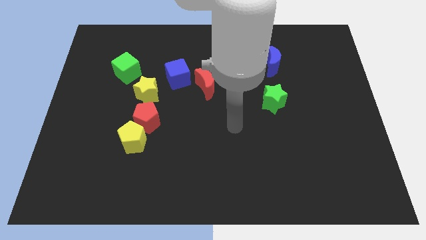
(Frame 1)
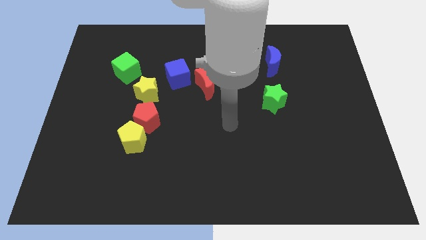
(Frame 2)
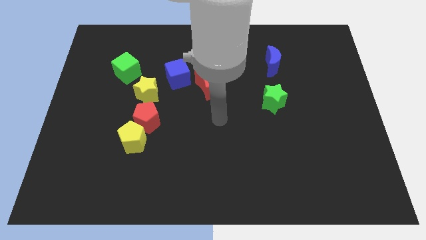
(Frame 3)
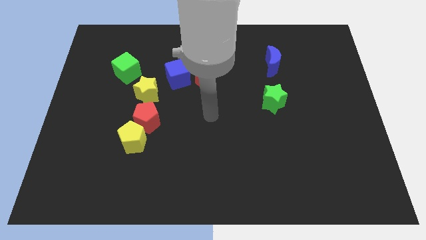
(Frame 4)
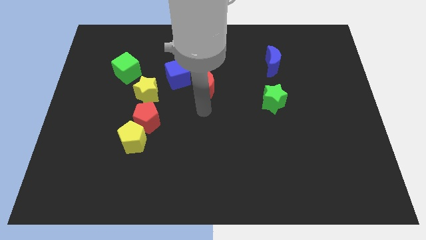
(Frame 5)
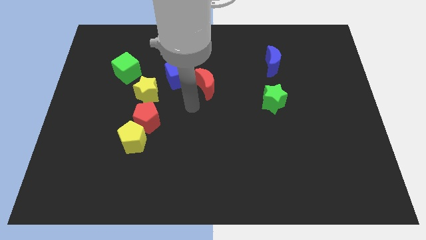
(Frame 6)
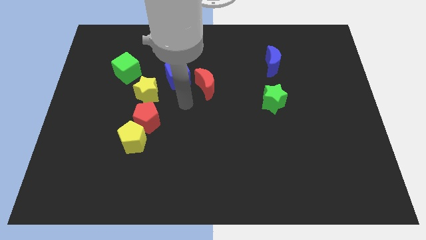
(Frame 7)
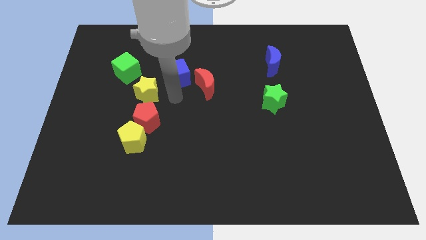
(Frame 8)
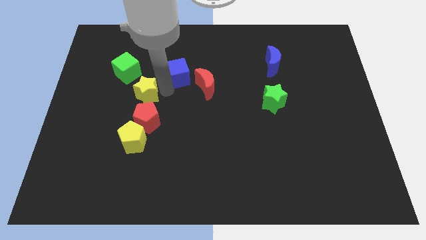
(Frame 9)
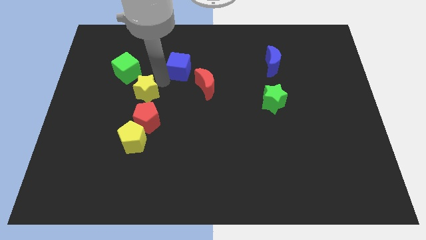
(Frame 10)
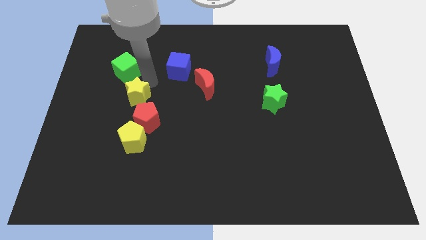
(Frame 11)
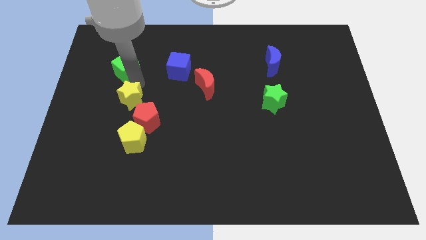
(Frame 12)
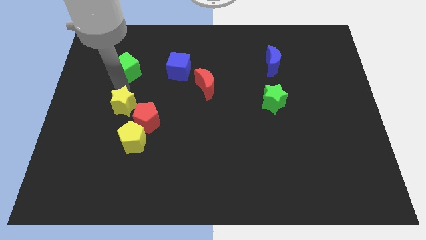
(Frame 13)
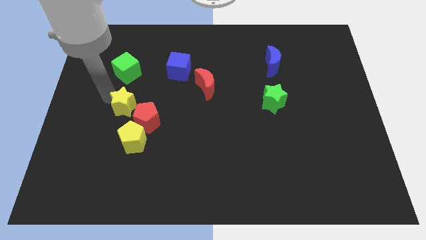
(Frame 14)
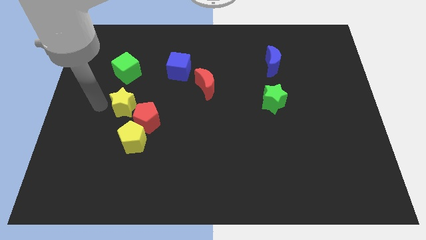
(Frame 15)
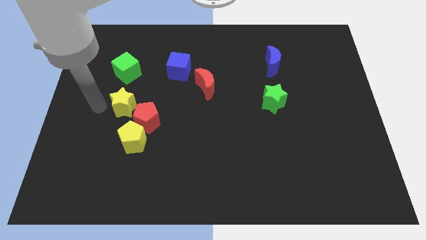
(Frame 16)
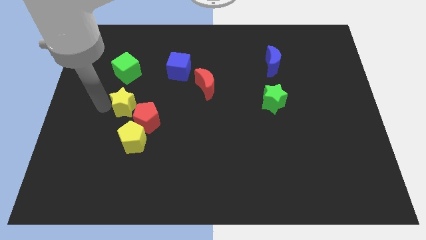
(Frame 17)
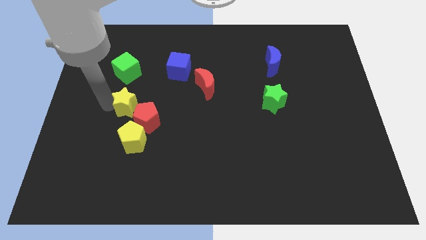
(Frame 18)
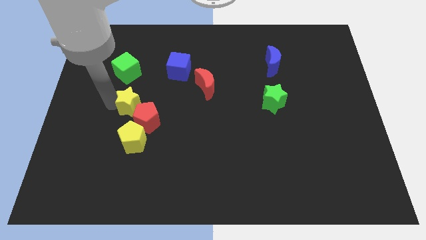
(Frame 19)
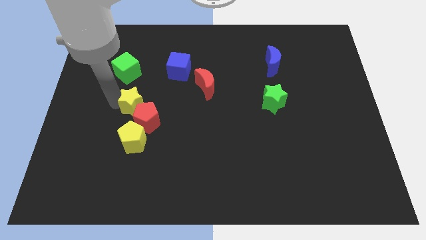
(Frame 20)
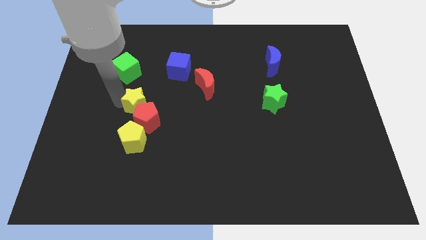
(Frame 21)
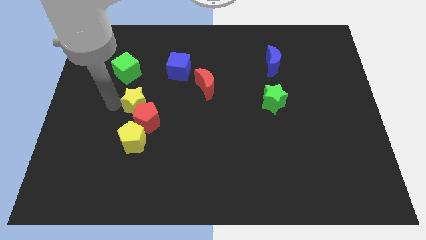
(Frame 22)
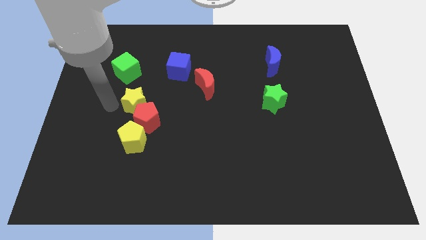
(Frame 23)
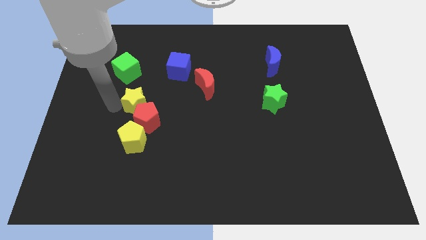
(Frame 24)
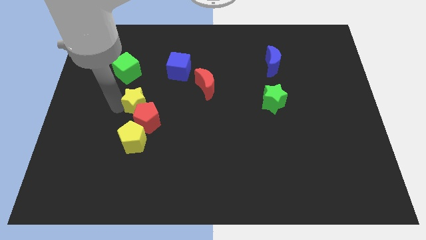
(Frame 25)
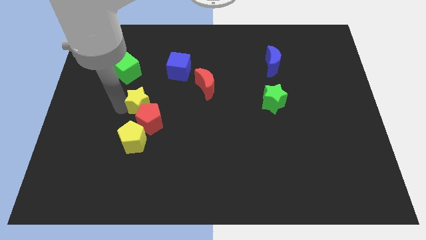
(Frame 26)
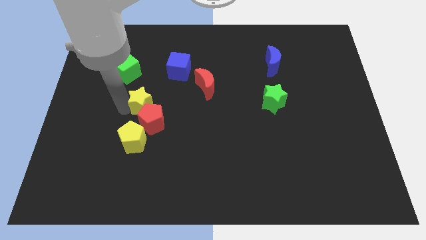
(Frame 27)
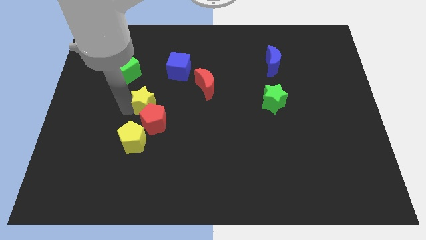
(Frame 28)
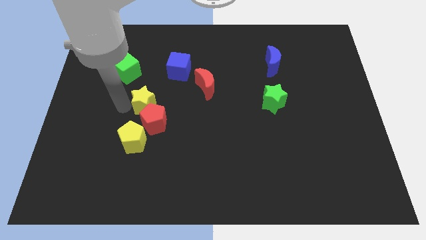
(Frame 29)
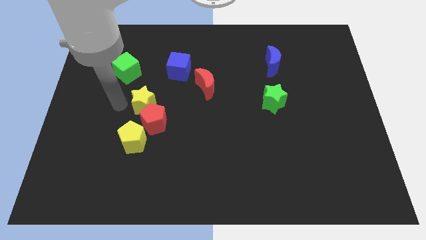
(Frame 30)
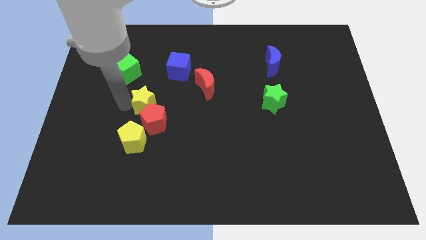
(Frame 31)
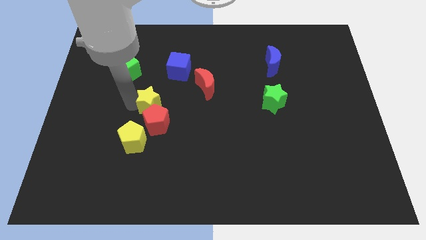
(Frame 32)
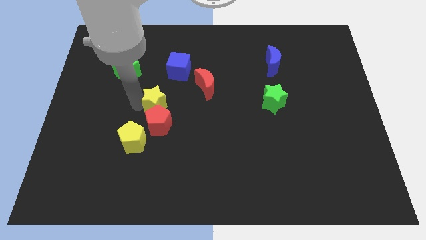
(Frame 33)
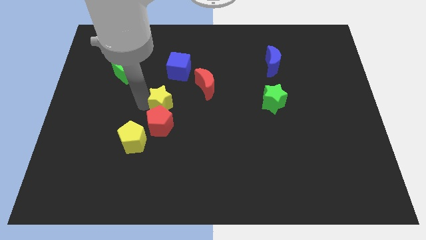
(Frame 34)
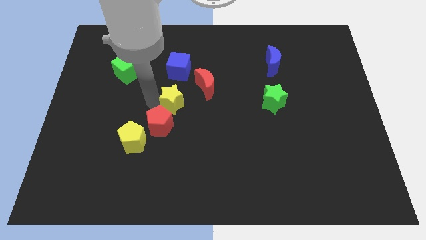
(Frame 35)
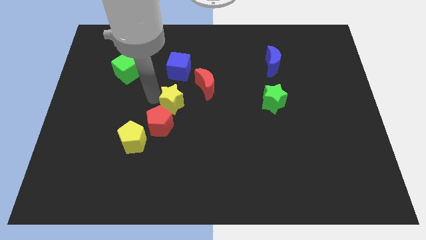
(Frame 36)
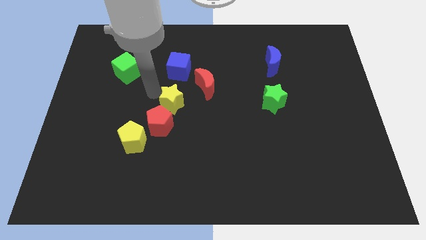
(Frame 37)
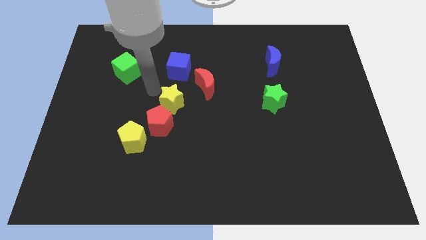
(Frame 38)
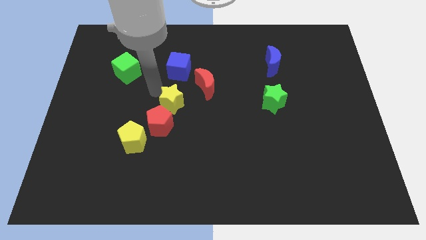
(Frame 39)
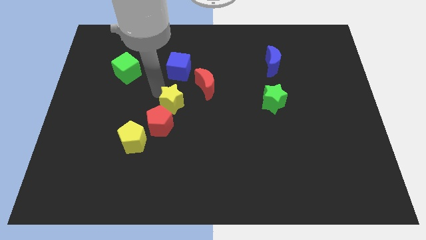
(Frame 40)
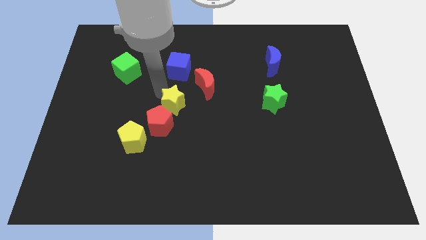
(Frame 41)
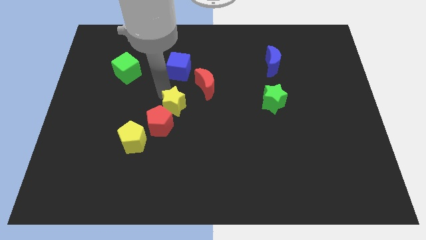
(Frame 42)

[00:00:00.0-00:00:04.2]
slightly slide the yellow star diagonally downwards and right

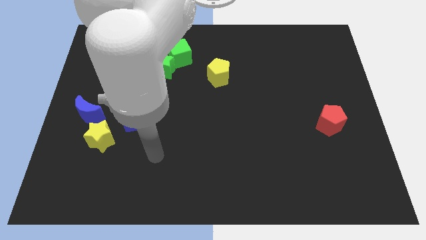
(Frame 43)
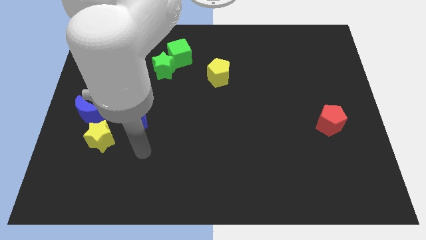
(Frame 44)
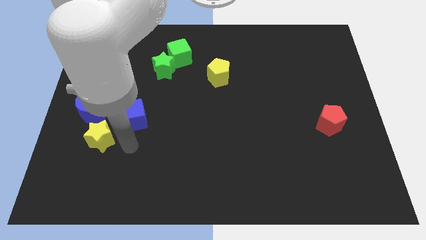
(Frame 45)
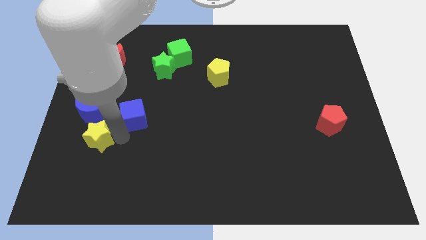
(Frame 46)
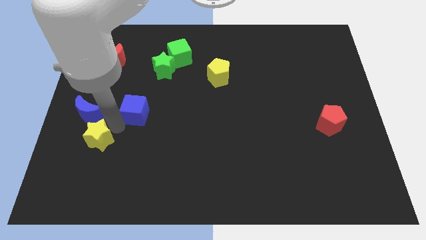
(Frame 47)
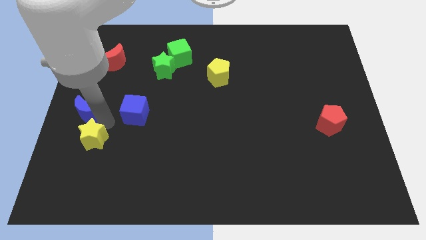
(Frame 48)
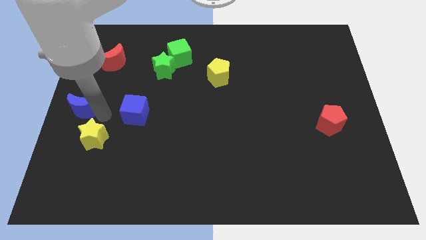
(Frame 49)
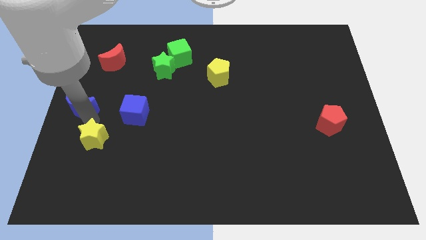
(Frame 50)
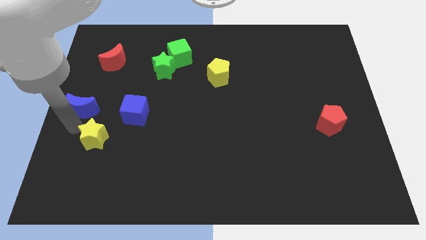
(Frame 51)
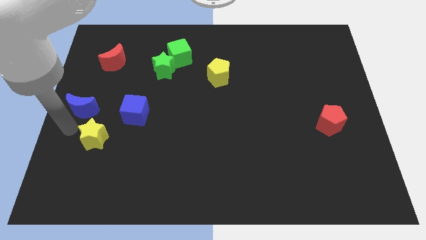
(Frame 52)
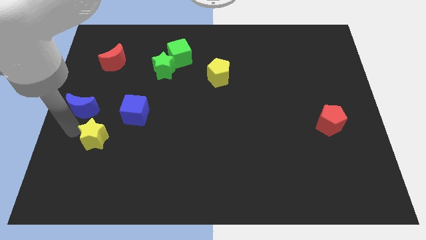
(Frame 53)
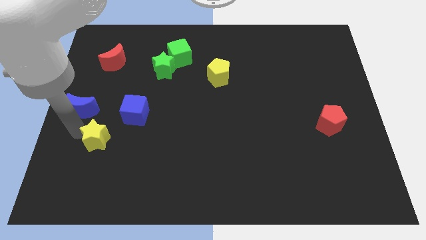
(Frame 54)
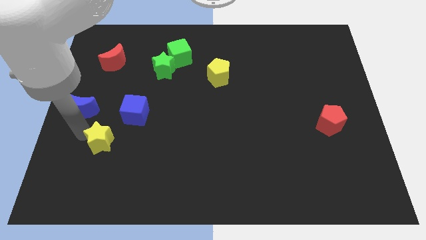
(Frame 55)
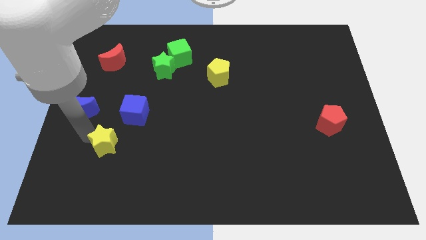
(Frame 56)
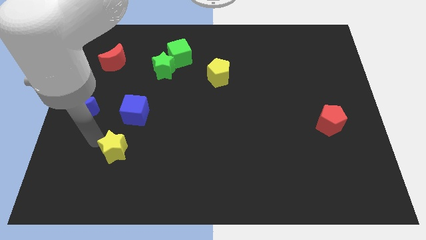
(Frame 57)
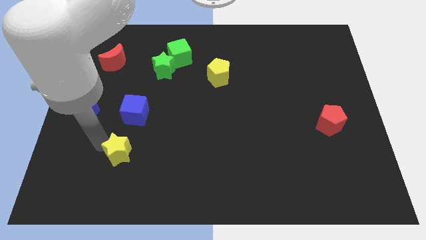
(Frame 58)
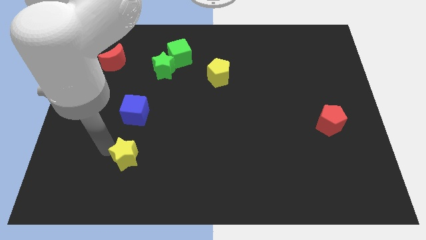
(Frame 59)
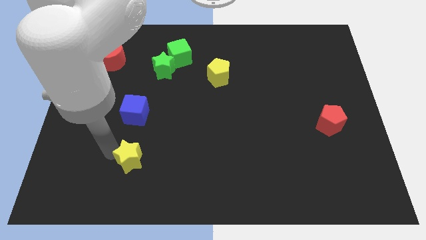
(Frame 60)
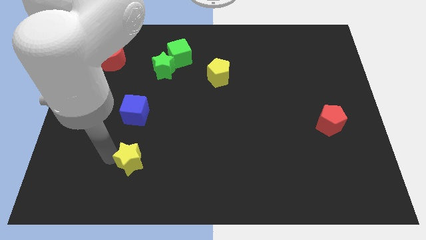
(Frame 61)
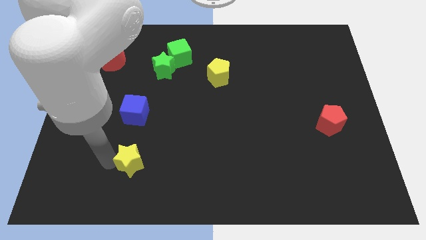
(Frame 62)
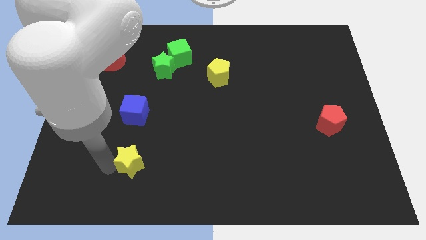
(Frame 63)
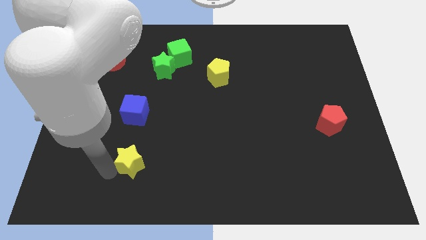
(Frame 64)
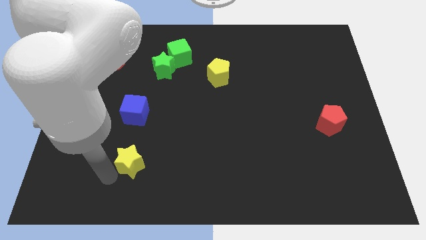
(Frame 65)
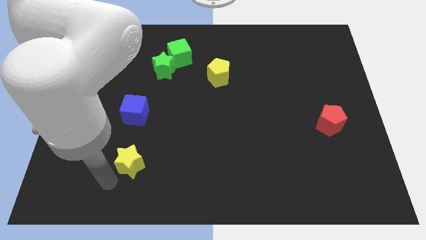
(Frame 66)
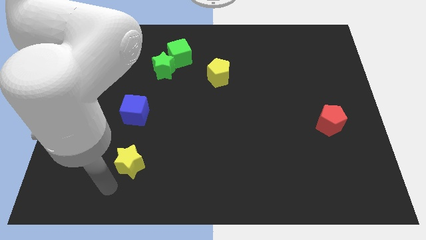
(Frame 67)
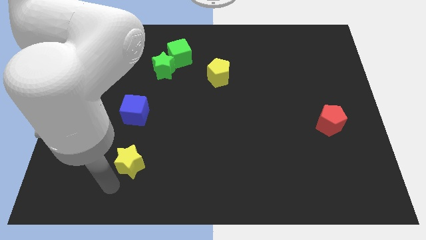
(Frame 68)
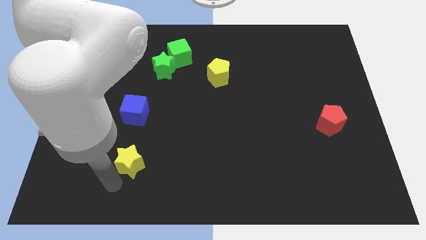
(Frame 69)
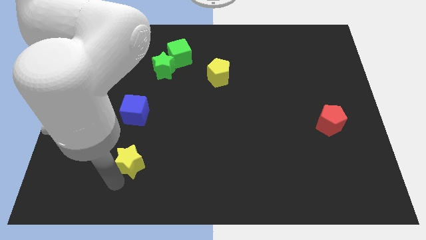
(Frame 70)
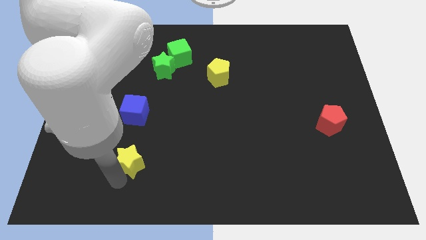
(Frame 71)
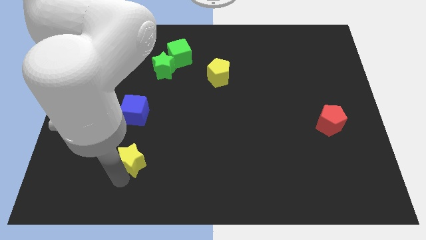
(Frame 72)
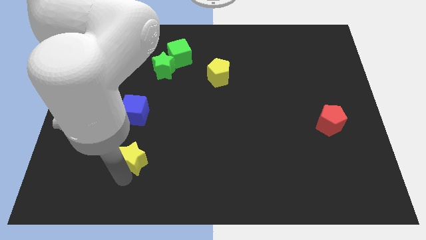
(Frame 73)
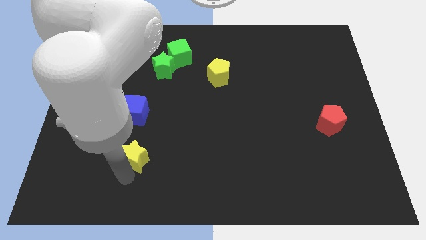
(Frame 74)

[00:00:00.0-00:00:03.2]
push the yellow star to the right a little bit

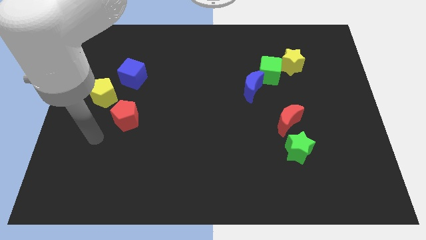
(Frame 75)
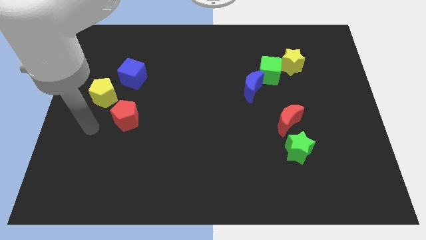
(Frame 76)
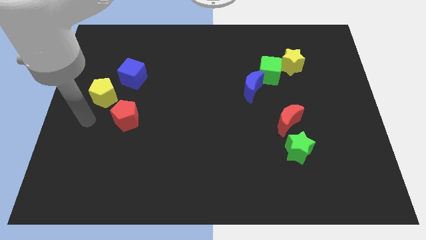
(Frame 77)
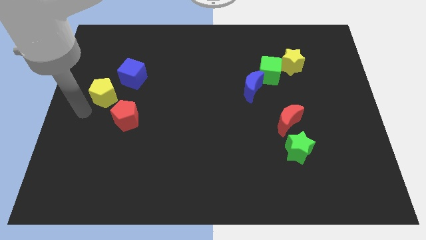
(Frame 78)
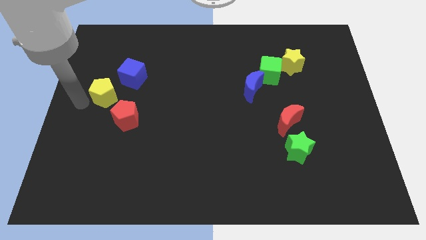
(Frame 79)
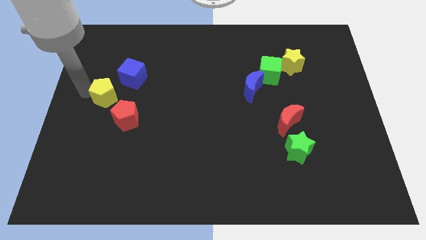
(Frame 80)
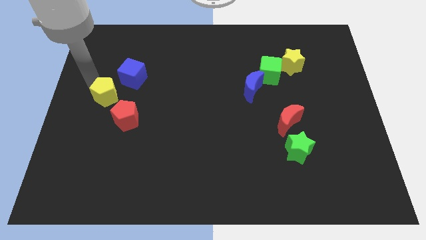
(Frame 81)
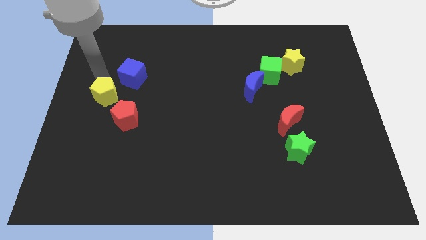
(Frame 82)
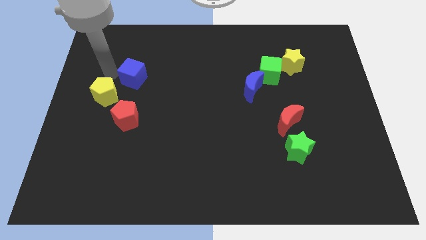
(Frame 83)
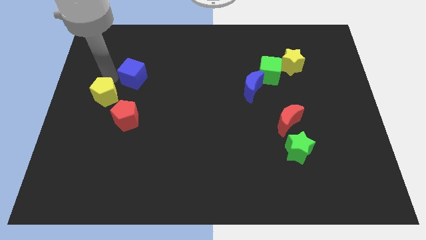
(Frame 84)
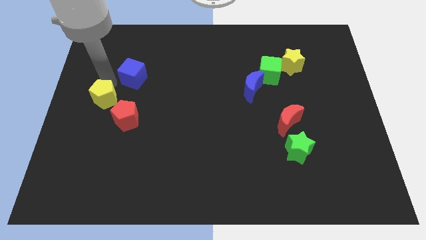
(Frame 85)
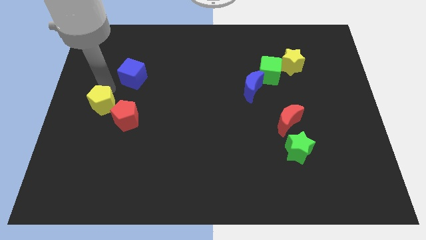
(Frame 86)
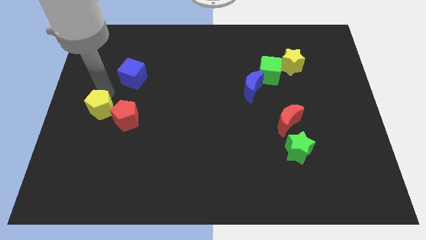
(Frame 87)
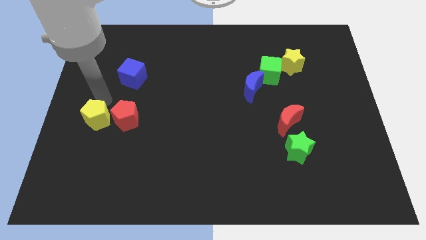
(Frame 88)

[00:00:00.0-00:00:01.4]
slightly push the yellow pentagon down
